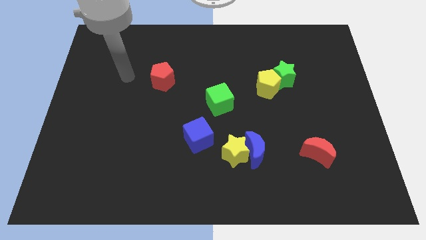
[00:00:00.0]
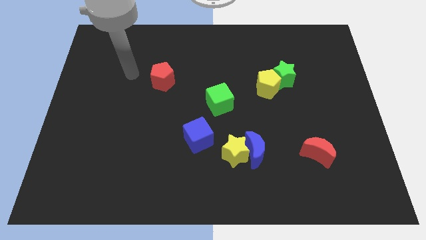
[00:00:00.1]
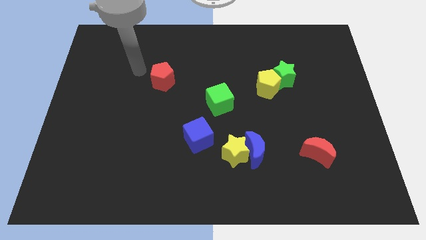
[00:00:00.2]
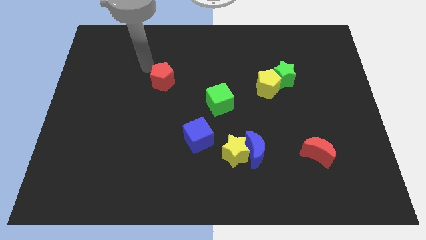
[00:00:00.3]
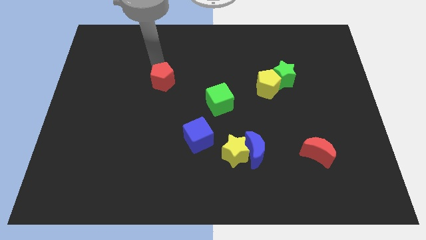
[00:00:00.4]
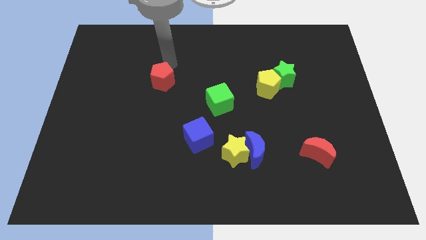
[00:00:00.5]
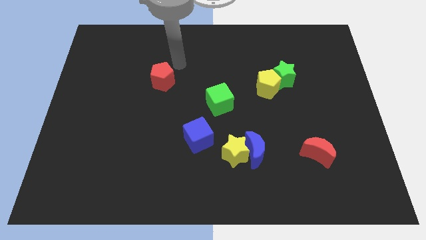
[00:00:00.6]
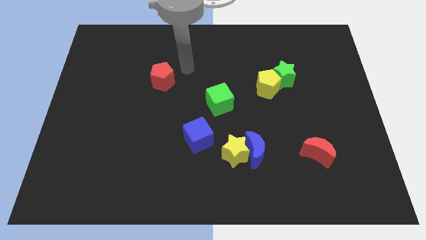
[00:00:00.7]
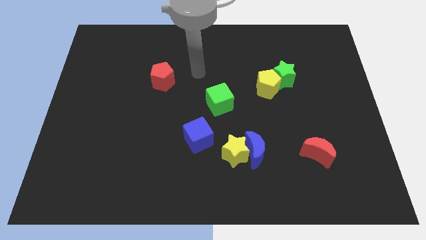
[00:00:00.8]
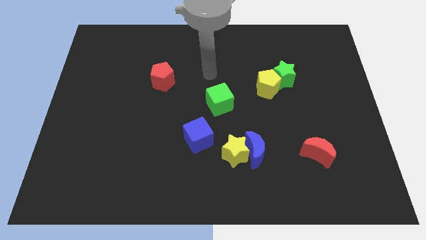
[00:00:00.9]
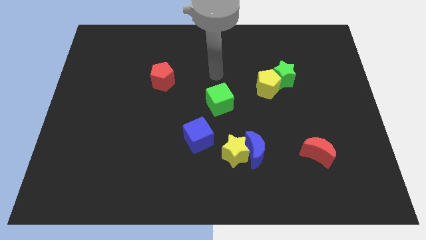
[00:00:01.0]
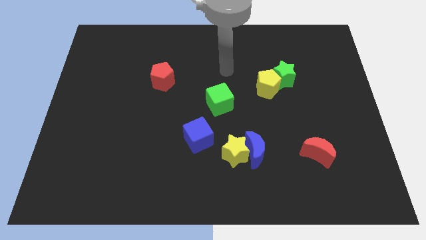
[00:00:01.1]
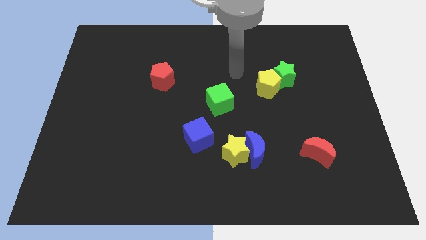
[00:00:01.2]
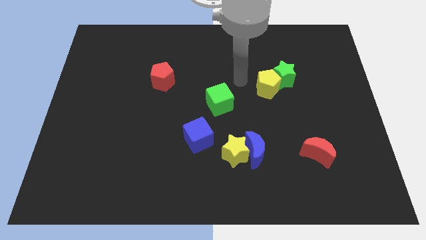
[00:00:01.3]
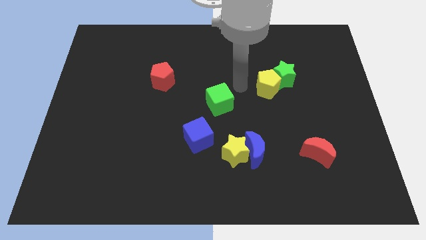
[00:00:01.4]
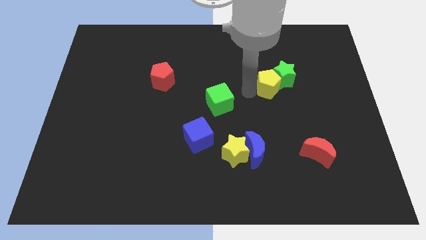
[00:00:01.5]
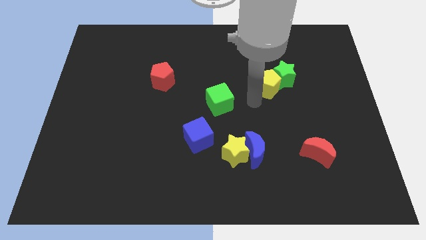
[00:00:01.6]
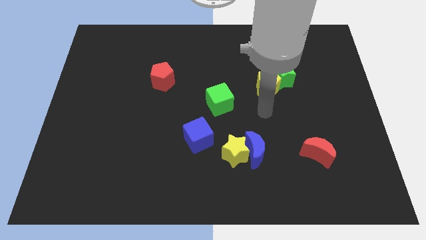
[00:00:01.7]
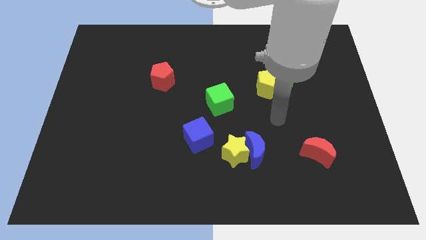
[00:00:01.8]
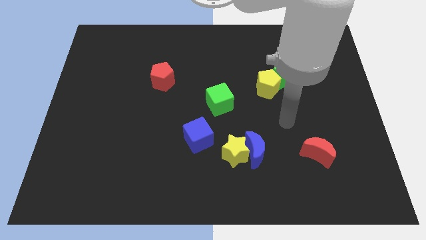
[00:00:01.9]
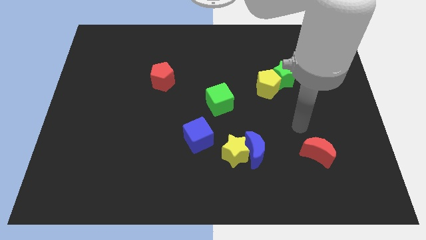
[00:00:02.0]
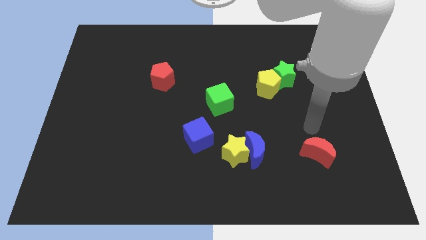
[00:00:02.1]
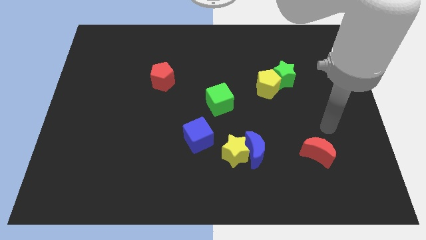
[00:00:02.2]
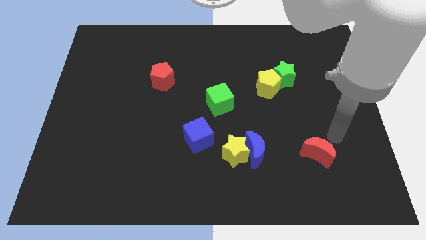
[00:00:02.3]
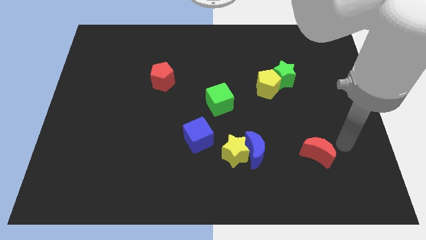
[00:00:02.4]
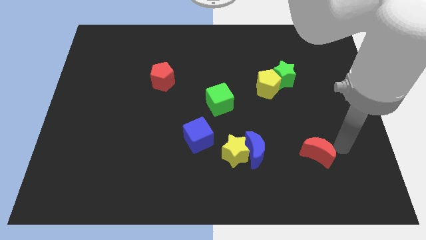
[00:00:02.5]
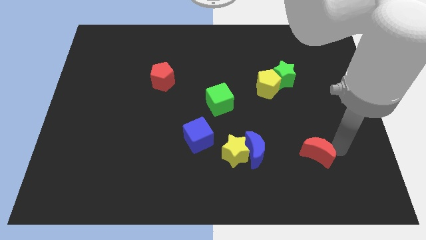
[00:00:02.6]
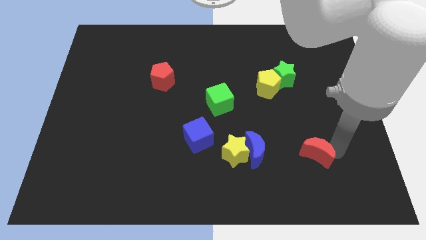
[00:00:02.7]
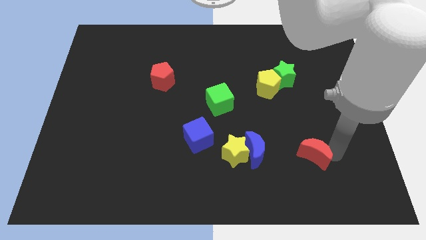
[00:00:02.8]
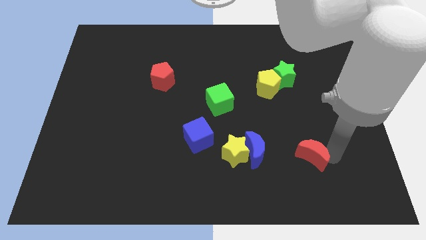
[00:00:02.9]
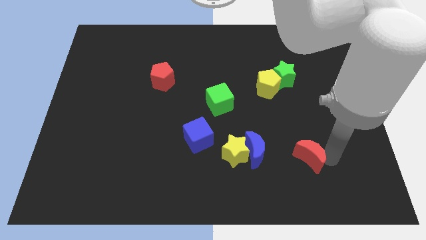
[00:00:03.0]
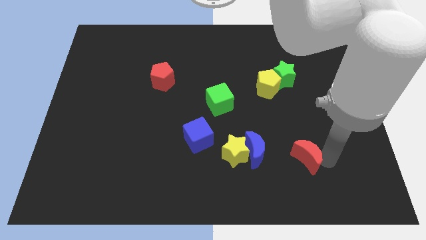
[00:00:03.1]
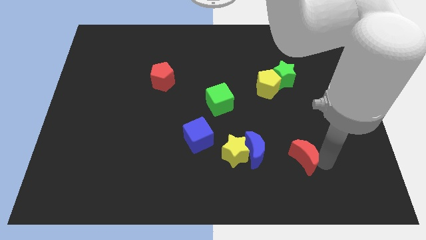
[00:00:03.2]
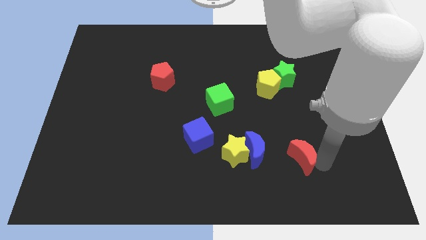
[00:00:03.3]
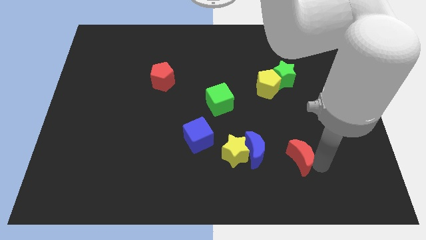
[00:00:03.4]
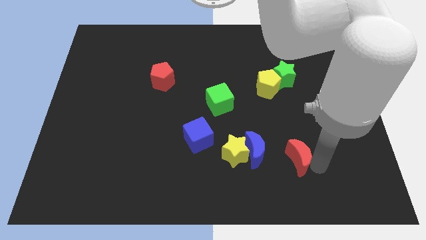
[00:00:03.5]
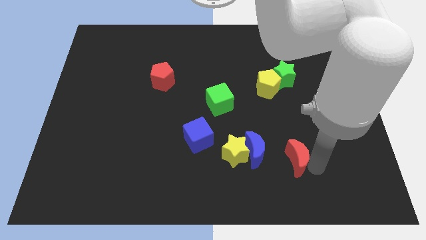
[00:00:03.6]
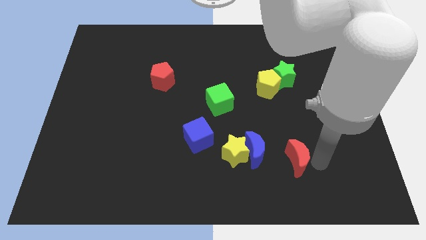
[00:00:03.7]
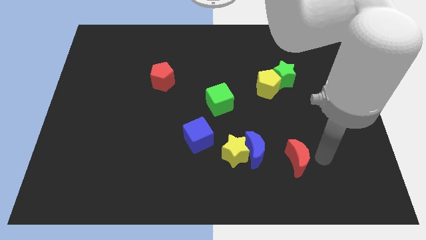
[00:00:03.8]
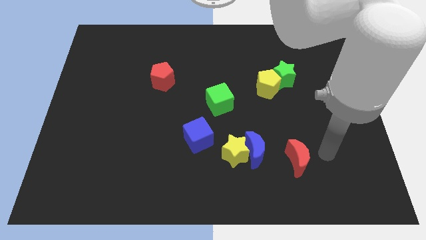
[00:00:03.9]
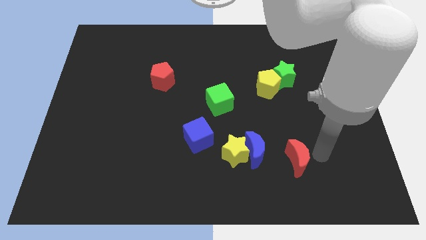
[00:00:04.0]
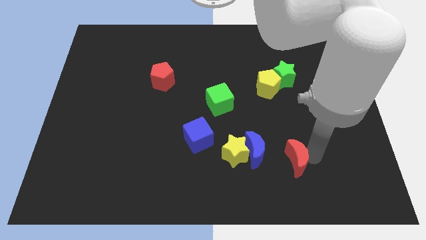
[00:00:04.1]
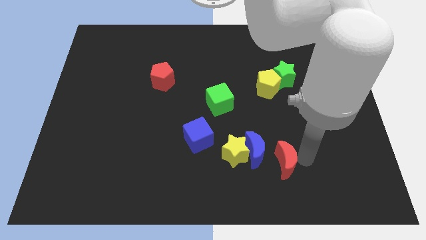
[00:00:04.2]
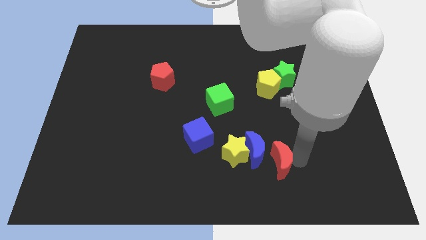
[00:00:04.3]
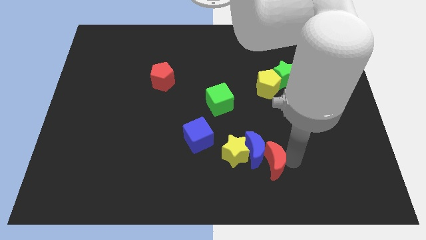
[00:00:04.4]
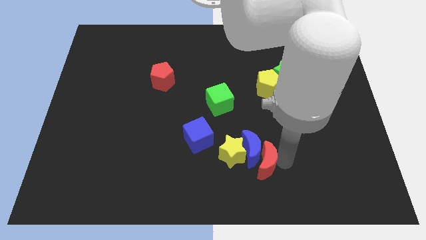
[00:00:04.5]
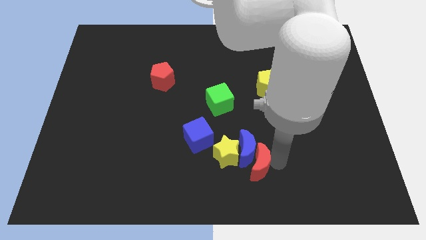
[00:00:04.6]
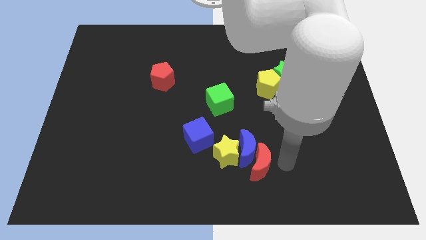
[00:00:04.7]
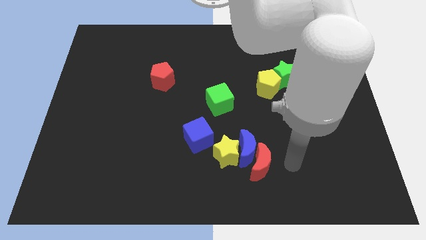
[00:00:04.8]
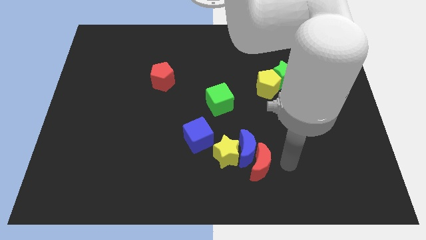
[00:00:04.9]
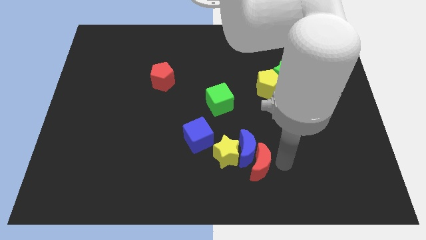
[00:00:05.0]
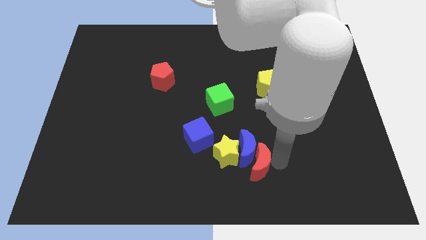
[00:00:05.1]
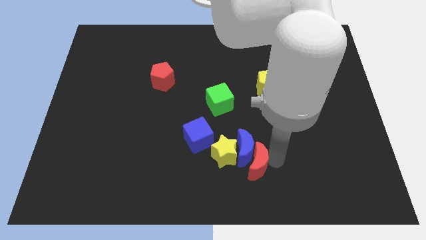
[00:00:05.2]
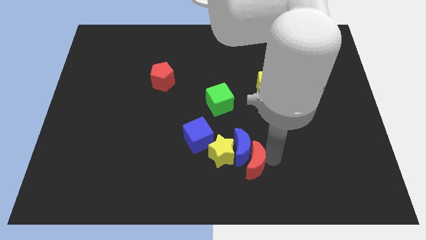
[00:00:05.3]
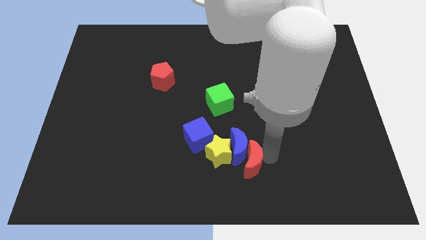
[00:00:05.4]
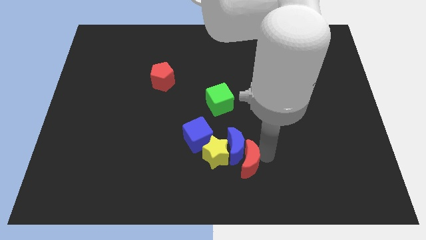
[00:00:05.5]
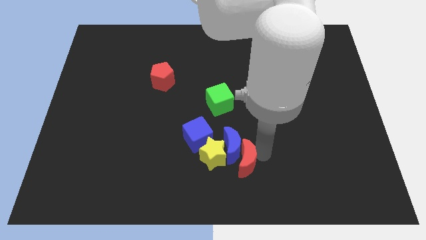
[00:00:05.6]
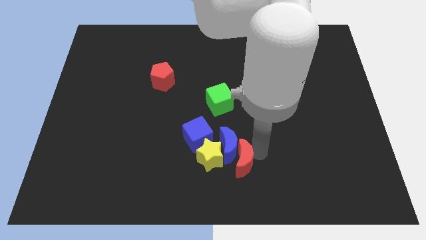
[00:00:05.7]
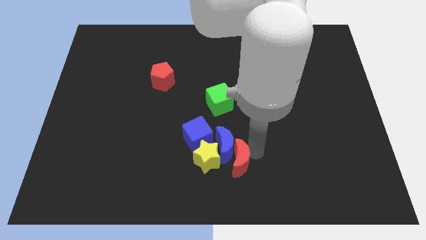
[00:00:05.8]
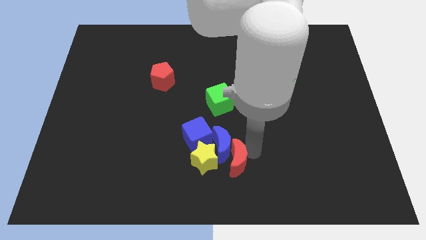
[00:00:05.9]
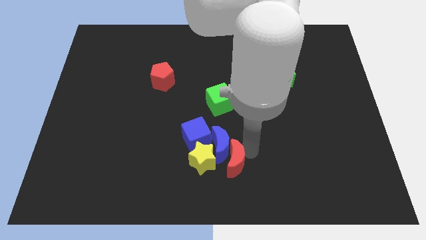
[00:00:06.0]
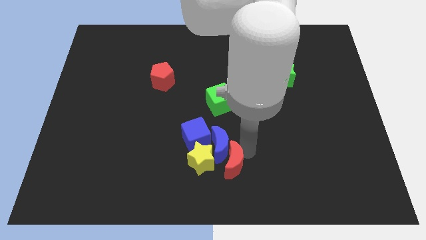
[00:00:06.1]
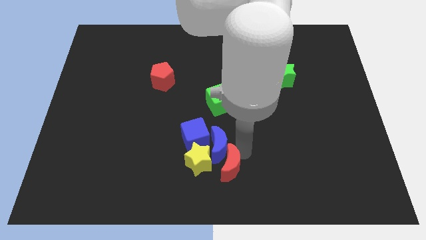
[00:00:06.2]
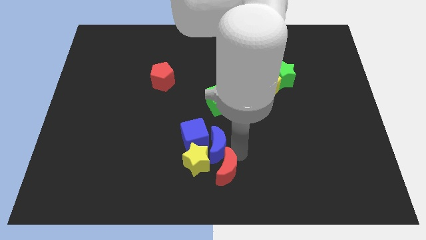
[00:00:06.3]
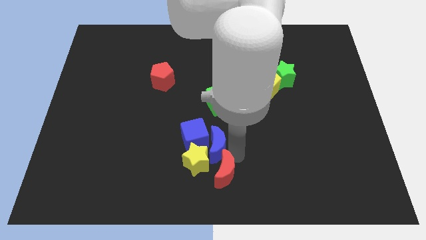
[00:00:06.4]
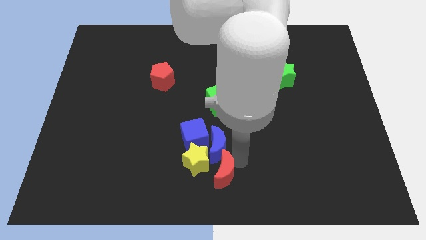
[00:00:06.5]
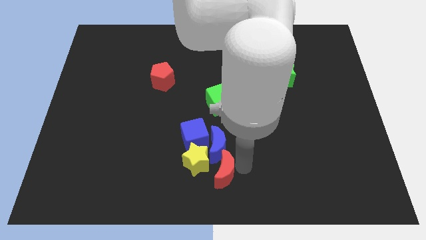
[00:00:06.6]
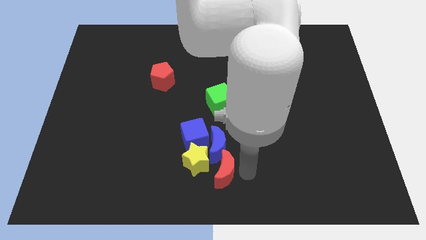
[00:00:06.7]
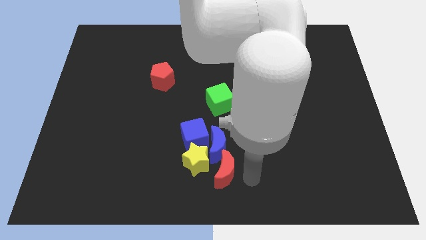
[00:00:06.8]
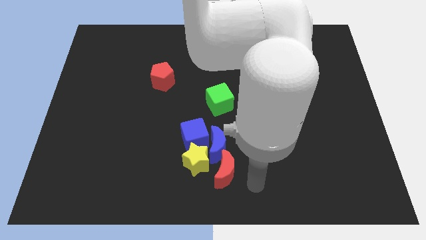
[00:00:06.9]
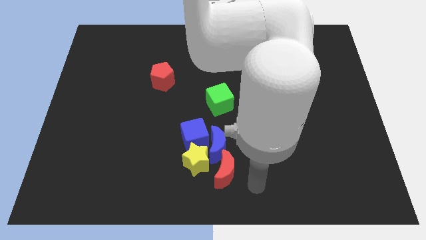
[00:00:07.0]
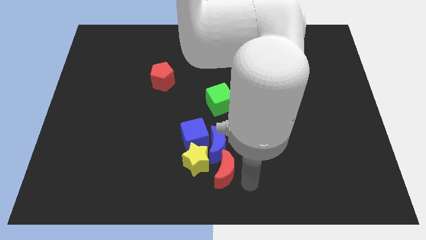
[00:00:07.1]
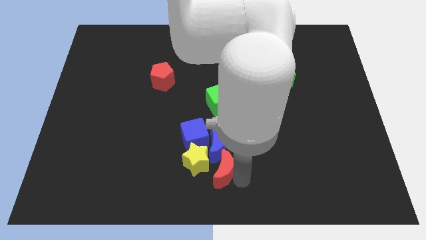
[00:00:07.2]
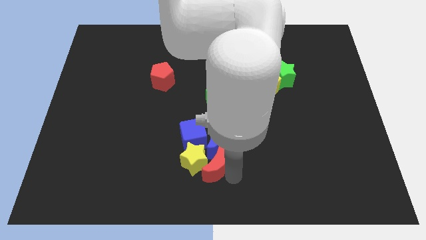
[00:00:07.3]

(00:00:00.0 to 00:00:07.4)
slide the red moon to the left

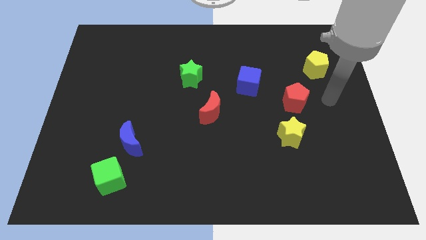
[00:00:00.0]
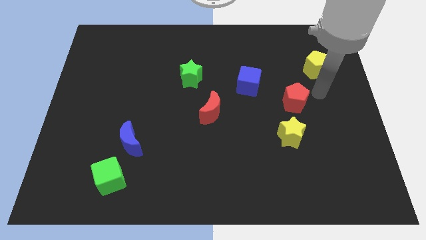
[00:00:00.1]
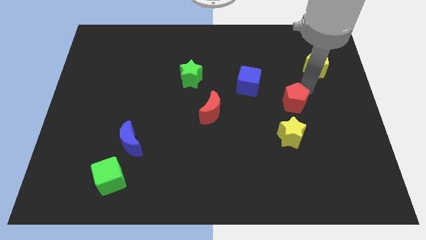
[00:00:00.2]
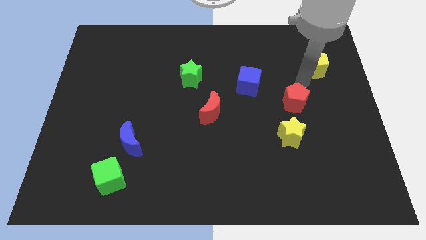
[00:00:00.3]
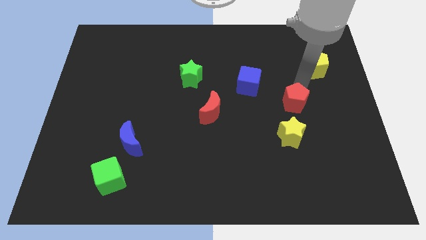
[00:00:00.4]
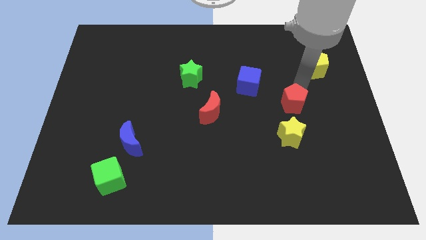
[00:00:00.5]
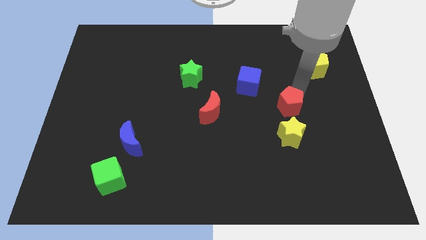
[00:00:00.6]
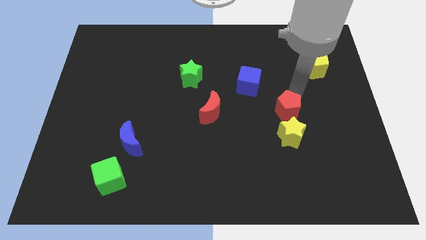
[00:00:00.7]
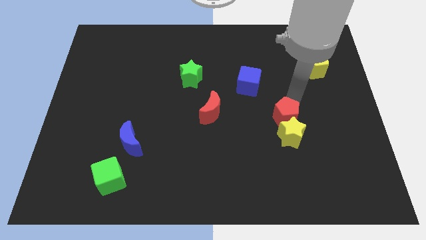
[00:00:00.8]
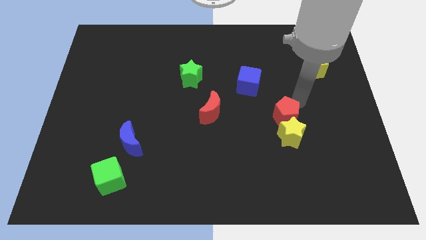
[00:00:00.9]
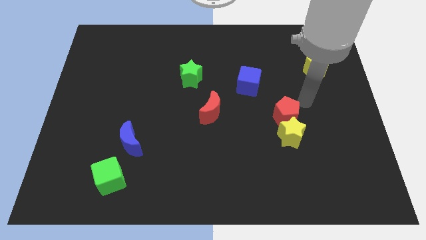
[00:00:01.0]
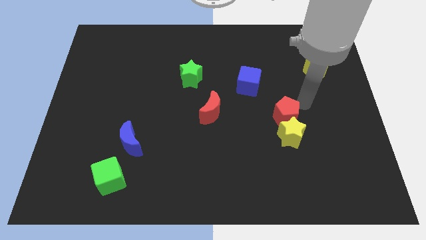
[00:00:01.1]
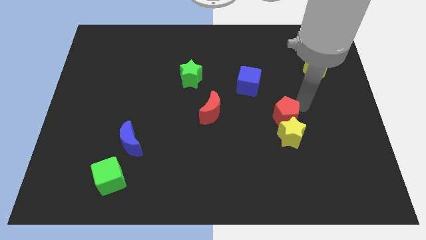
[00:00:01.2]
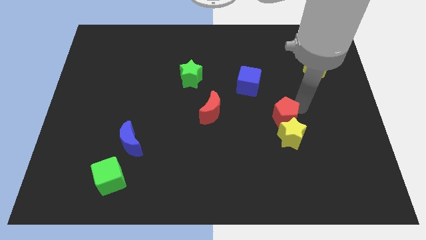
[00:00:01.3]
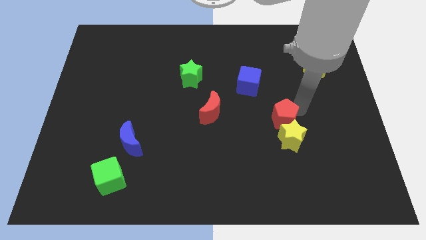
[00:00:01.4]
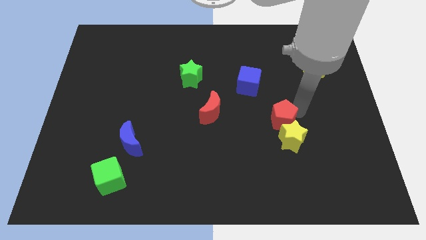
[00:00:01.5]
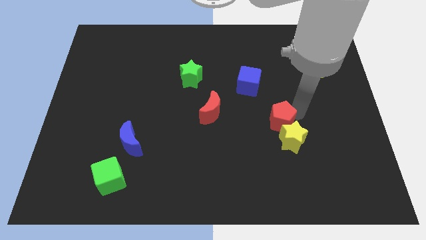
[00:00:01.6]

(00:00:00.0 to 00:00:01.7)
push the red pentagon downwards and to the left a little bit
